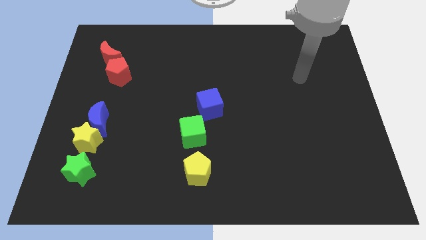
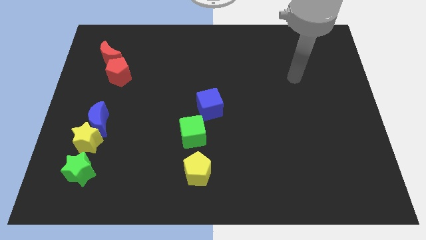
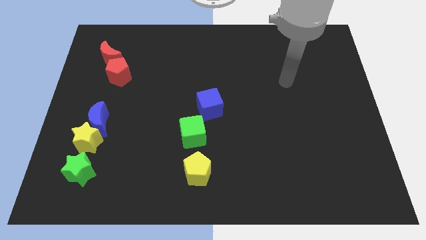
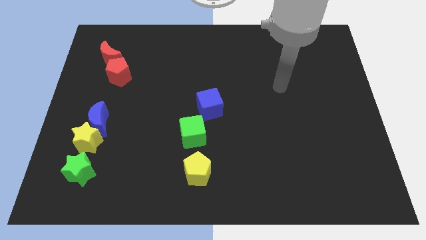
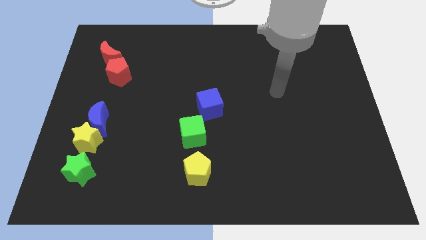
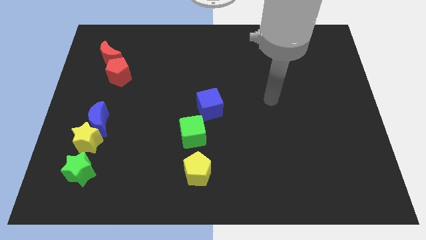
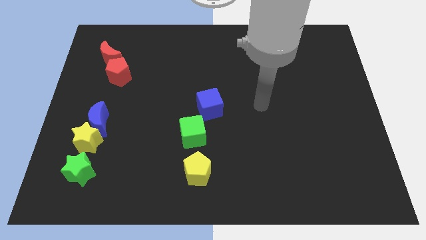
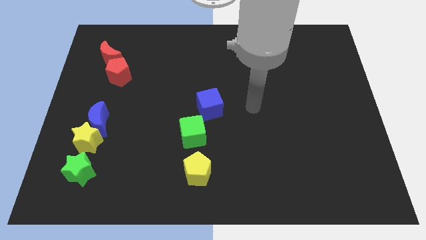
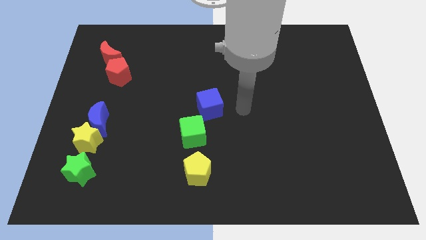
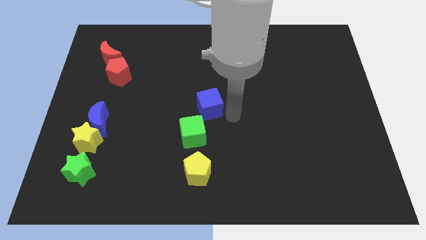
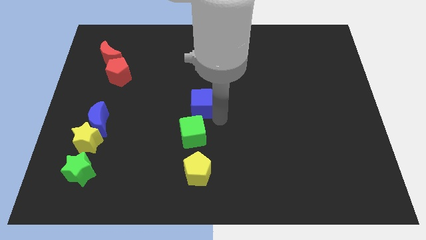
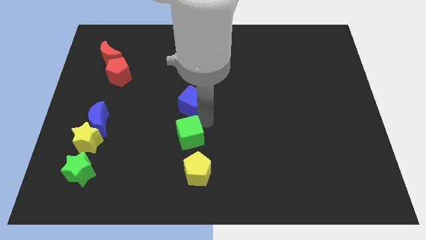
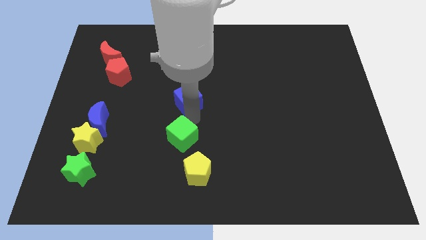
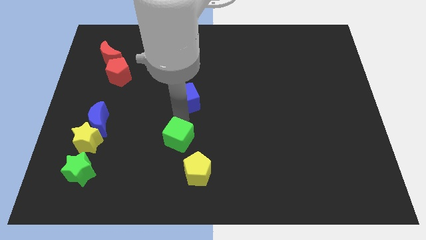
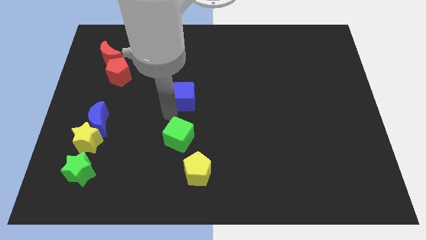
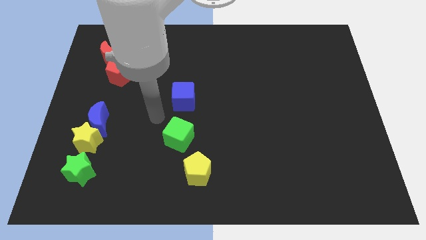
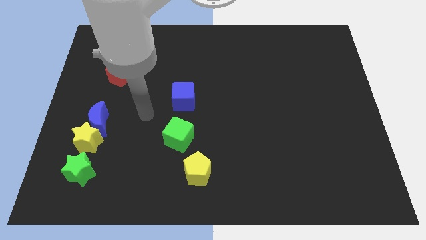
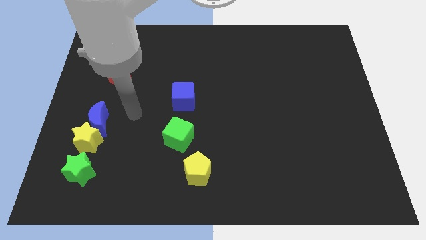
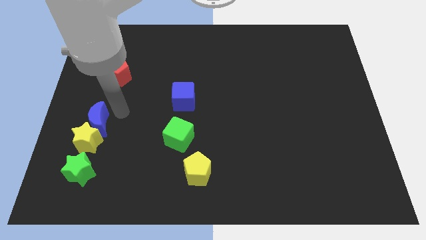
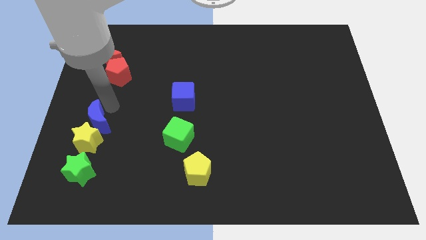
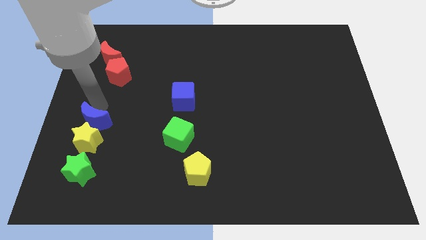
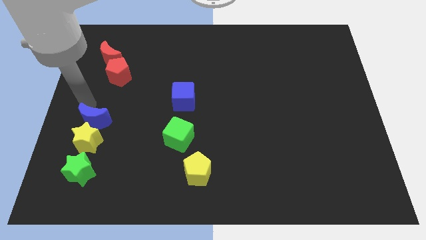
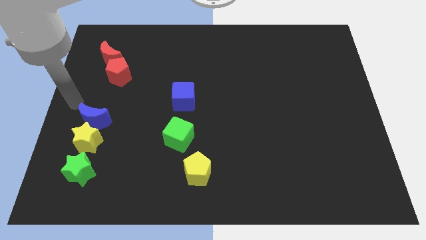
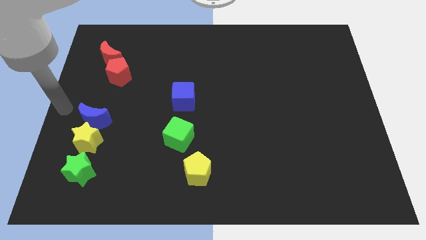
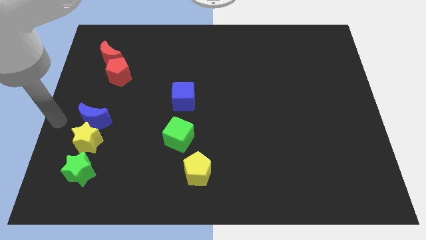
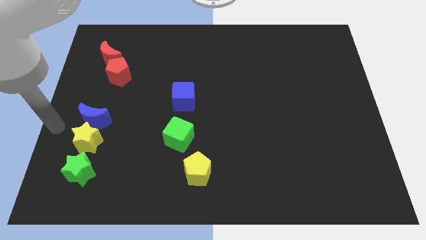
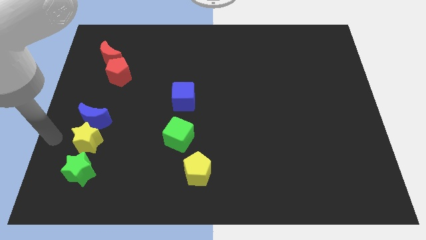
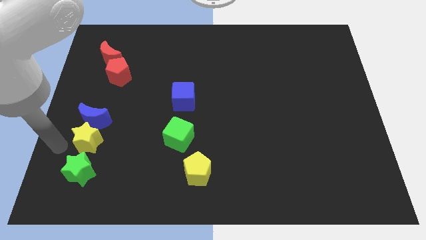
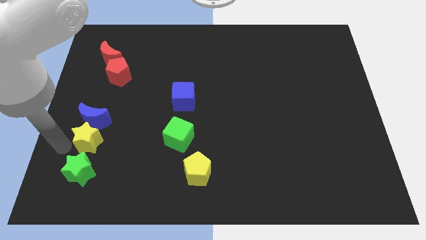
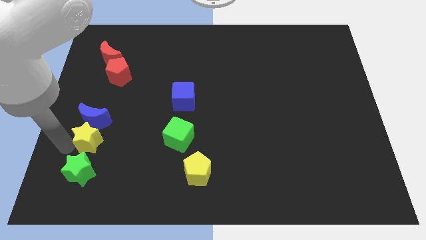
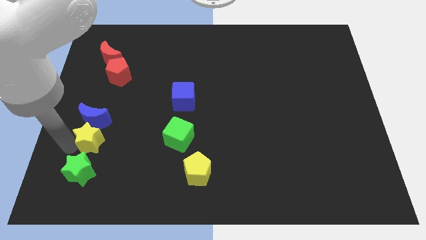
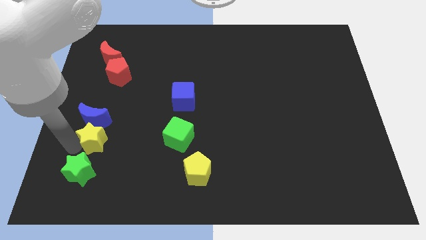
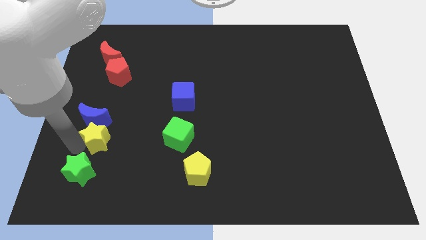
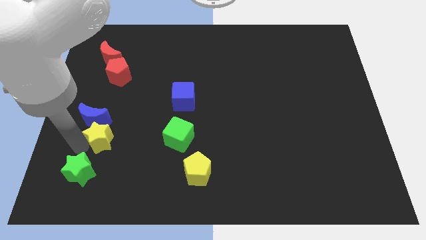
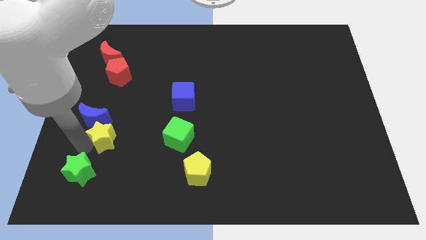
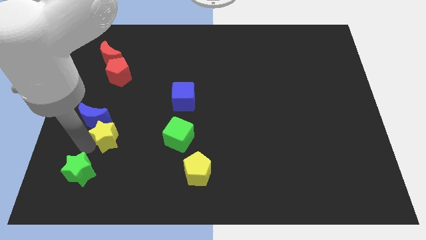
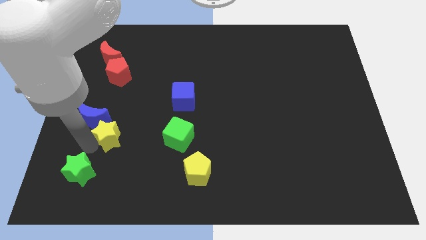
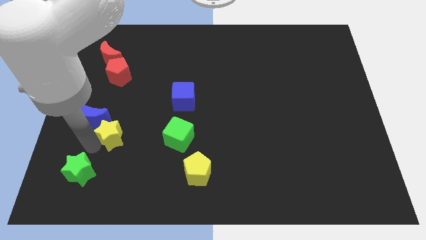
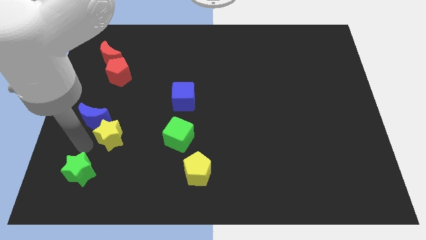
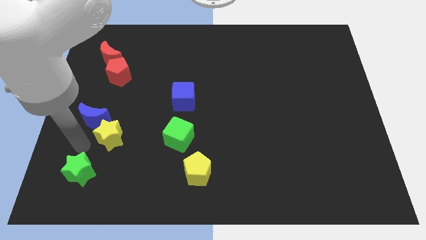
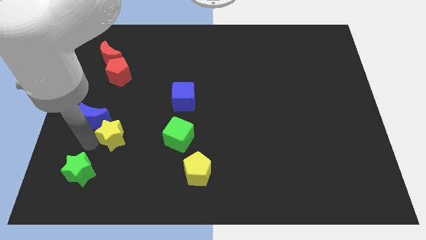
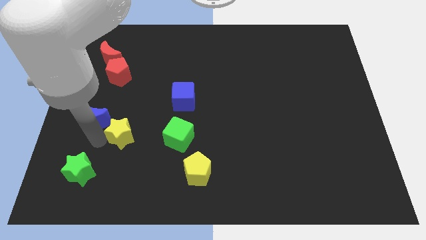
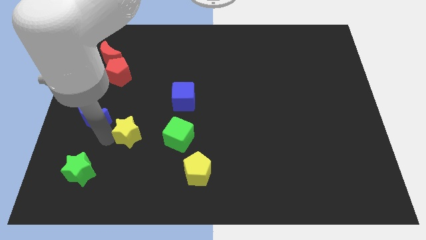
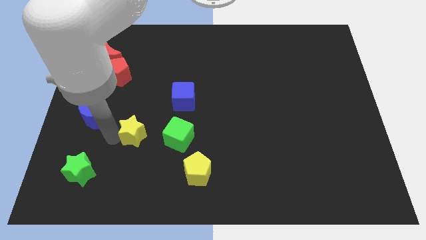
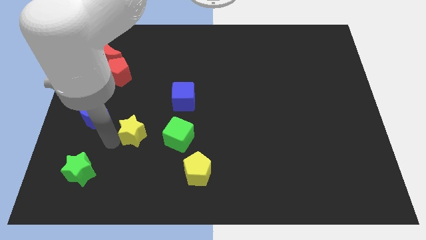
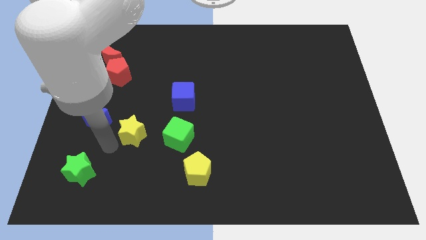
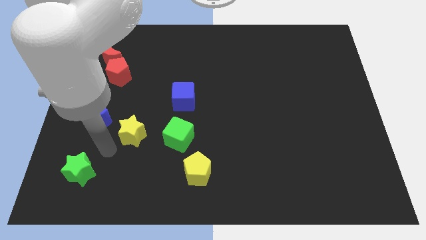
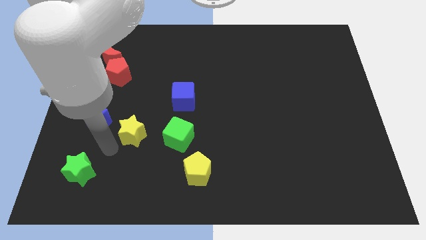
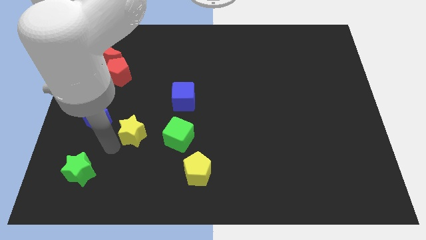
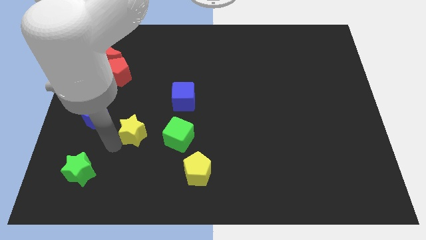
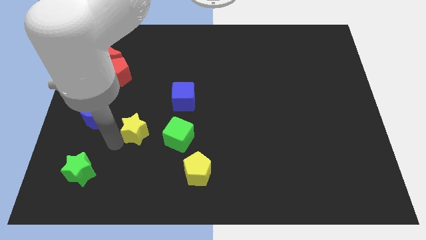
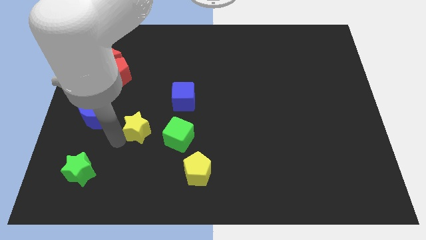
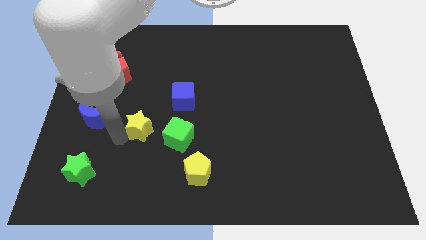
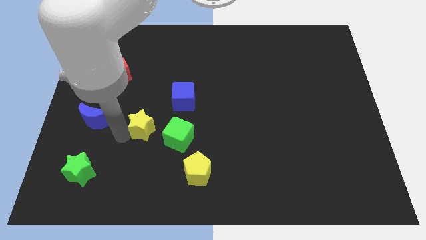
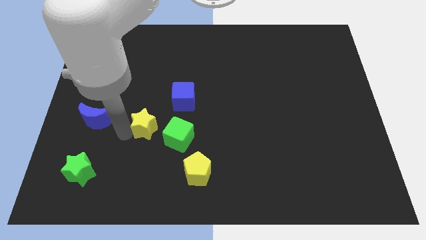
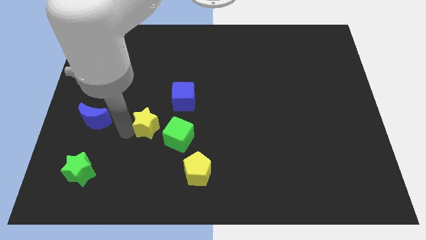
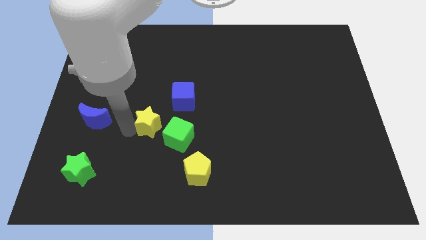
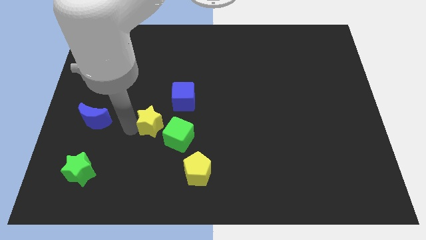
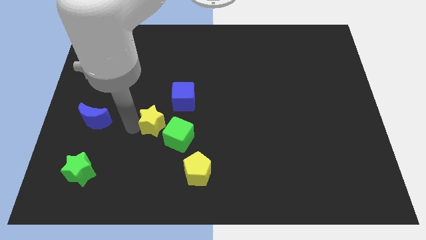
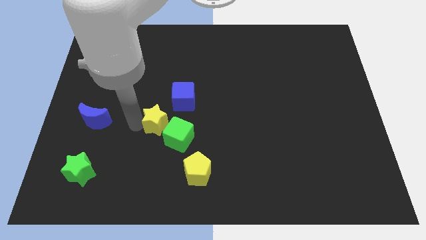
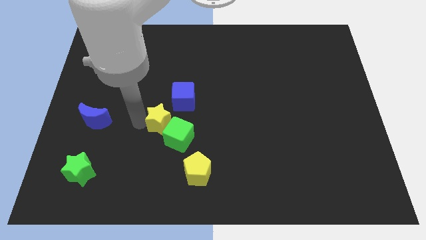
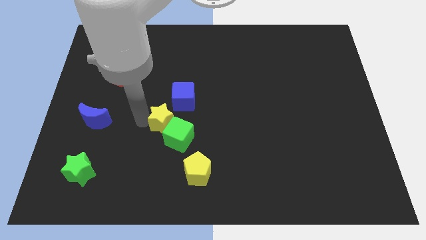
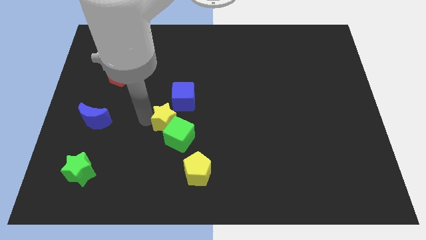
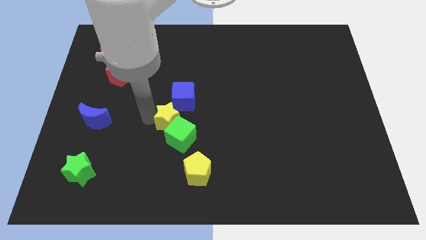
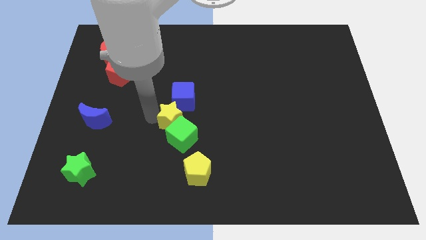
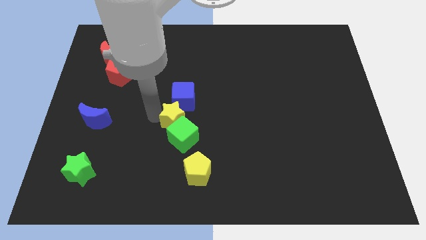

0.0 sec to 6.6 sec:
put the yellow star close to the blue cube
